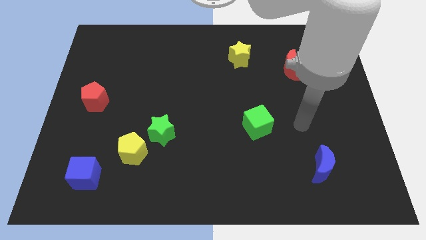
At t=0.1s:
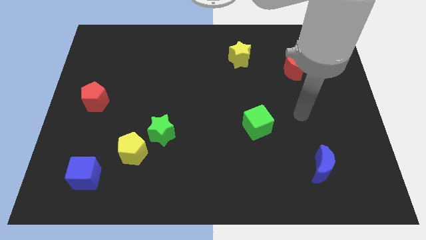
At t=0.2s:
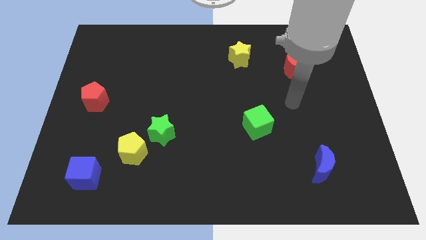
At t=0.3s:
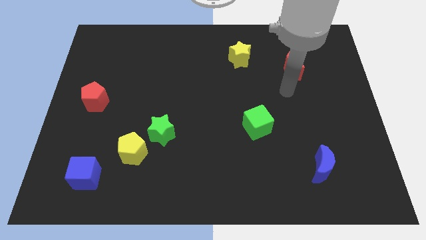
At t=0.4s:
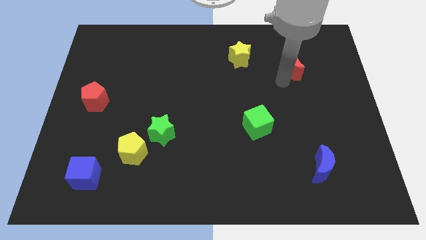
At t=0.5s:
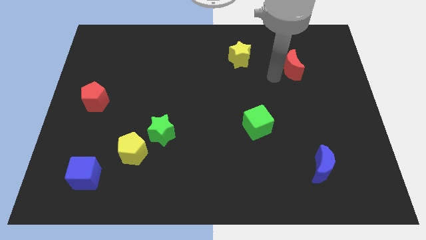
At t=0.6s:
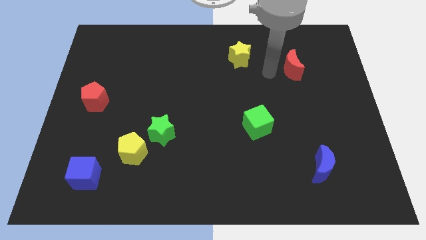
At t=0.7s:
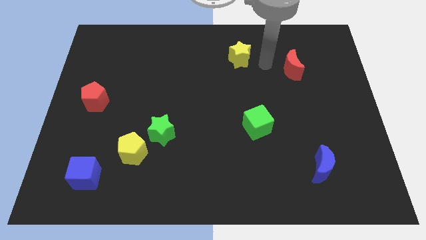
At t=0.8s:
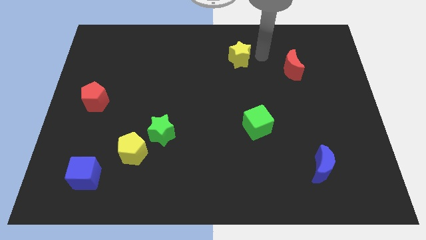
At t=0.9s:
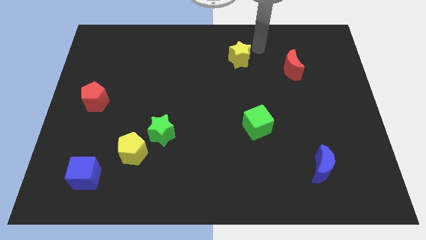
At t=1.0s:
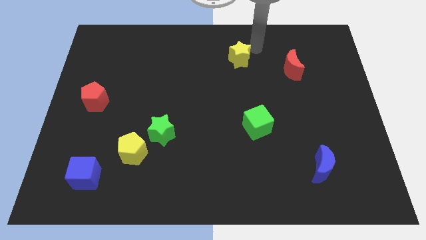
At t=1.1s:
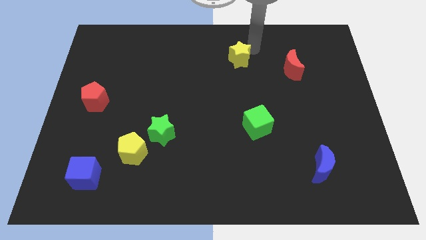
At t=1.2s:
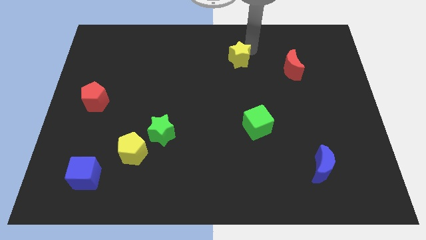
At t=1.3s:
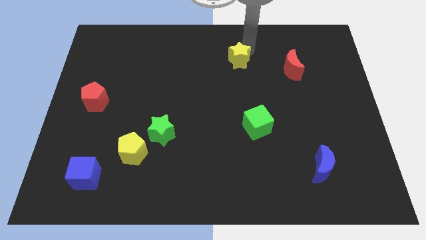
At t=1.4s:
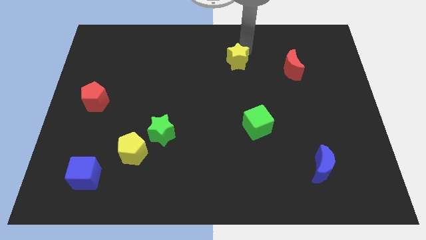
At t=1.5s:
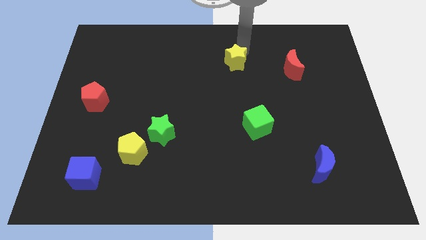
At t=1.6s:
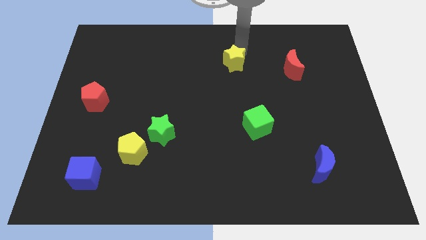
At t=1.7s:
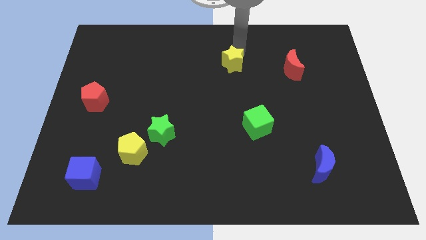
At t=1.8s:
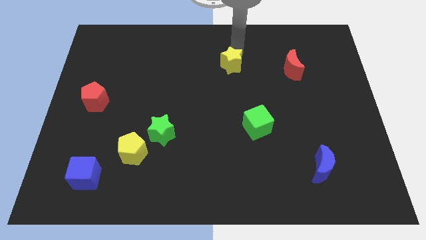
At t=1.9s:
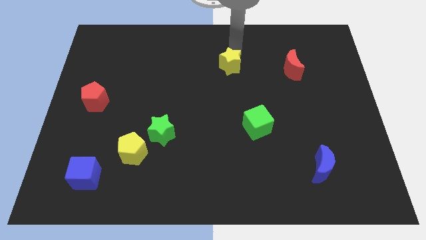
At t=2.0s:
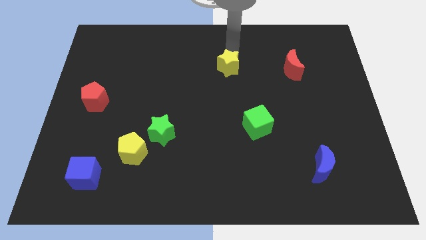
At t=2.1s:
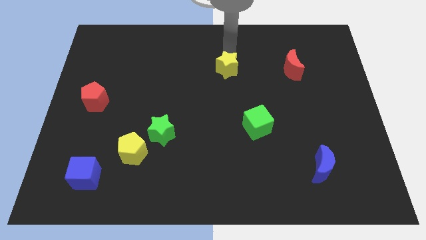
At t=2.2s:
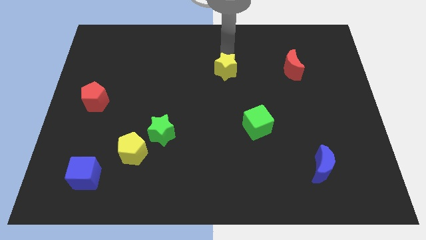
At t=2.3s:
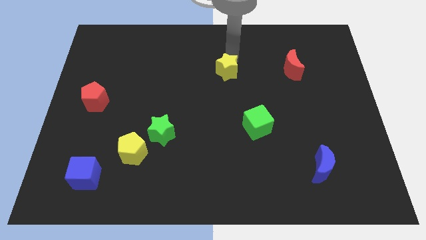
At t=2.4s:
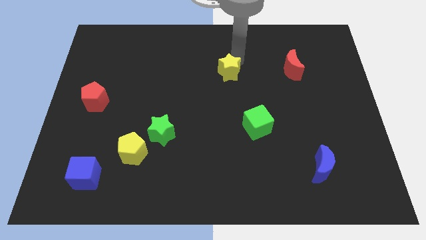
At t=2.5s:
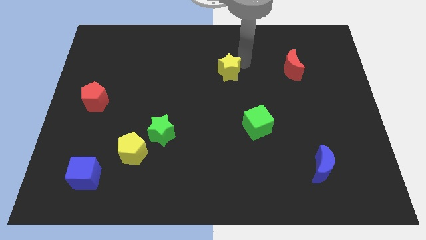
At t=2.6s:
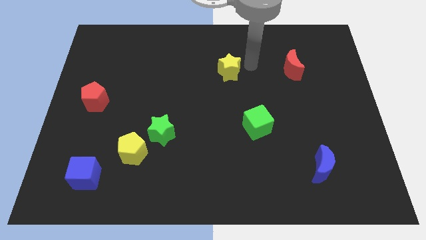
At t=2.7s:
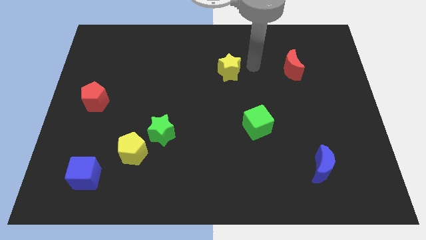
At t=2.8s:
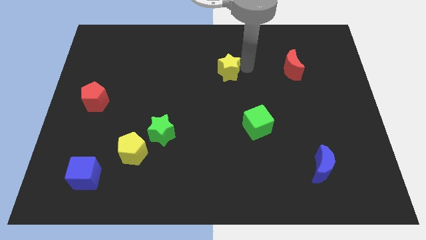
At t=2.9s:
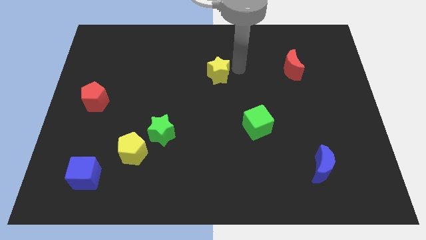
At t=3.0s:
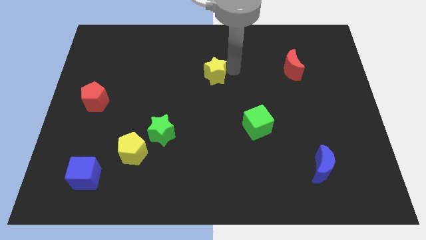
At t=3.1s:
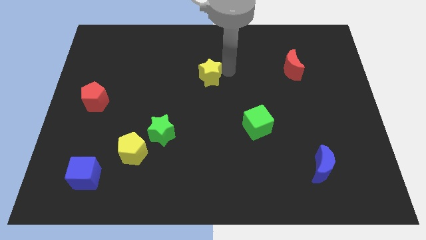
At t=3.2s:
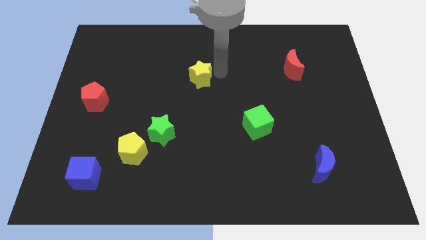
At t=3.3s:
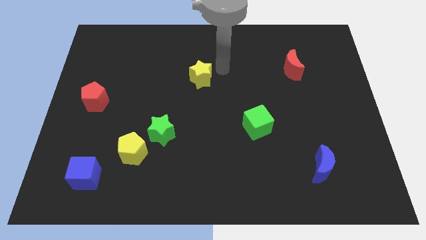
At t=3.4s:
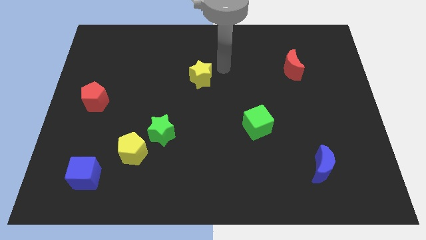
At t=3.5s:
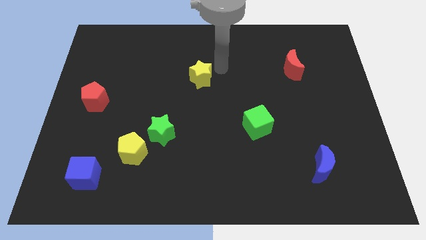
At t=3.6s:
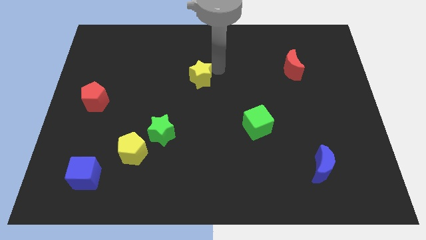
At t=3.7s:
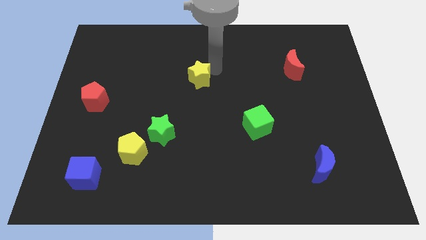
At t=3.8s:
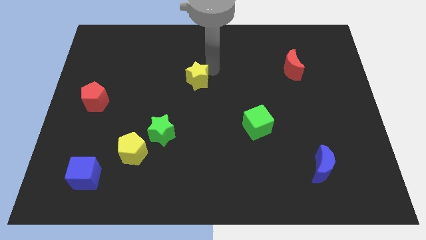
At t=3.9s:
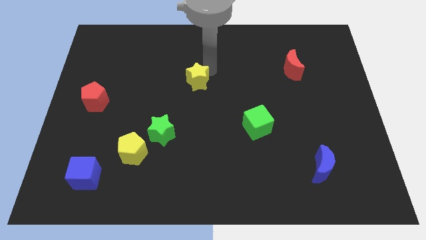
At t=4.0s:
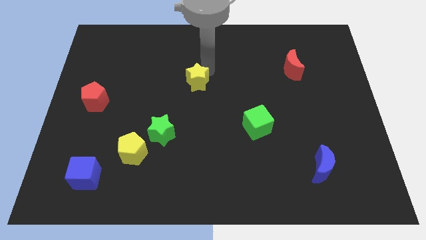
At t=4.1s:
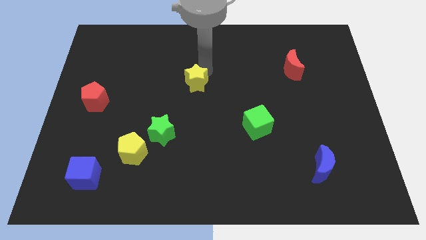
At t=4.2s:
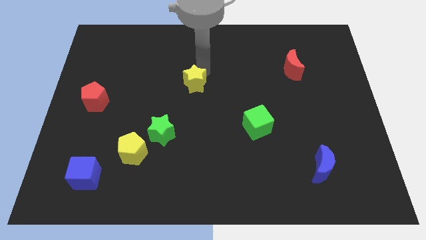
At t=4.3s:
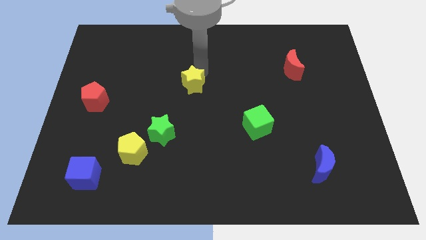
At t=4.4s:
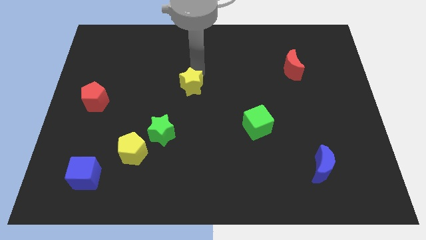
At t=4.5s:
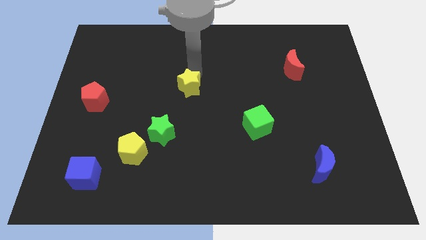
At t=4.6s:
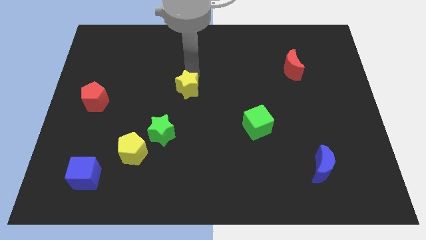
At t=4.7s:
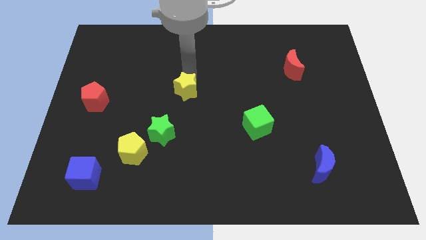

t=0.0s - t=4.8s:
put the yellow star above the green star

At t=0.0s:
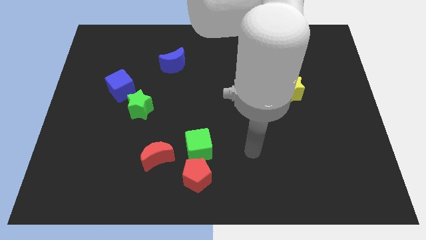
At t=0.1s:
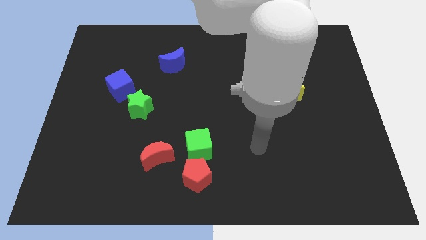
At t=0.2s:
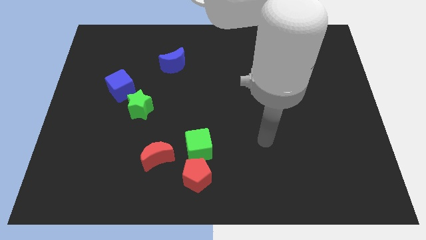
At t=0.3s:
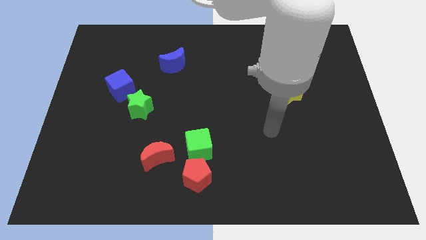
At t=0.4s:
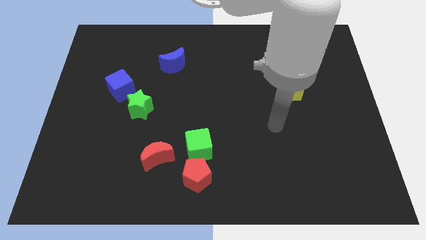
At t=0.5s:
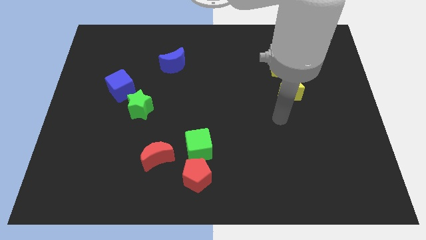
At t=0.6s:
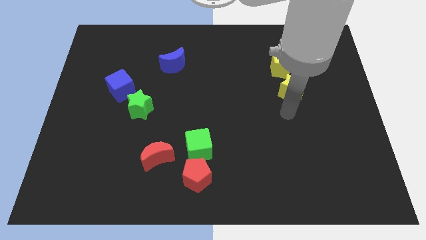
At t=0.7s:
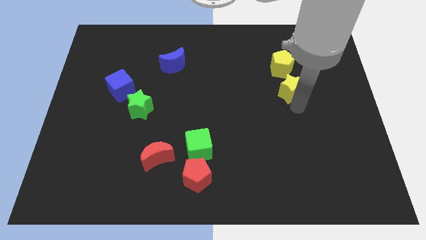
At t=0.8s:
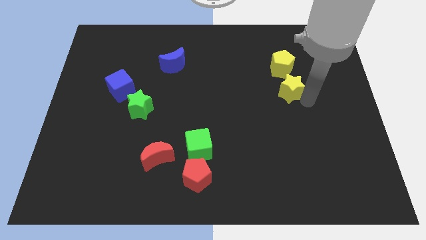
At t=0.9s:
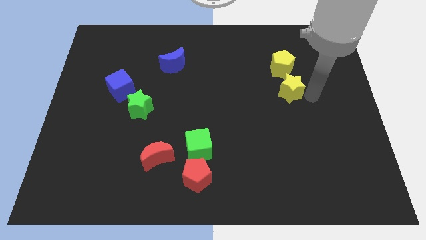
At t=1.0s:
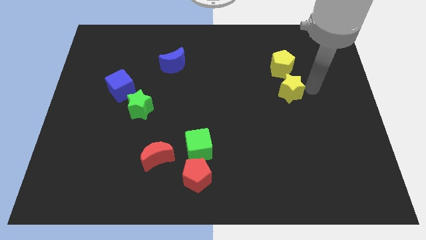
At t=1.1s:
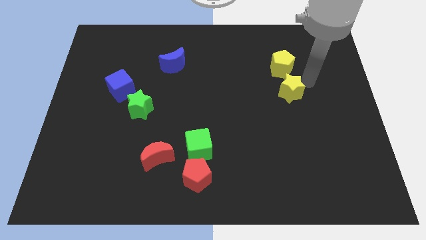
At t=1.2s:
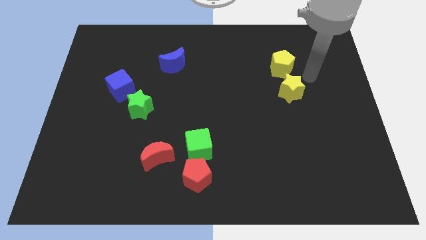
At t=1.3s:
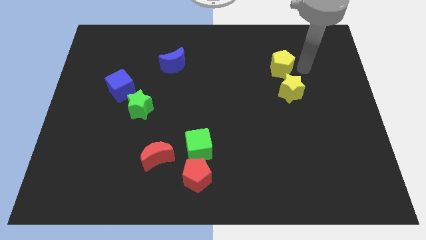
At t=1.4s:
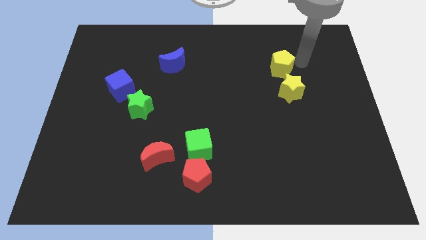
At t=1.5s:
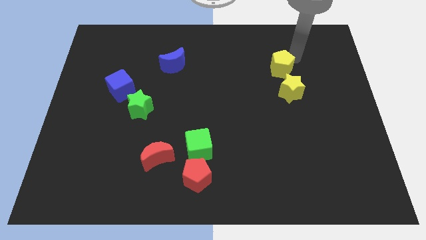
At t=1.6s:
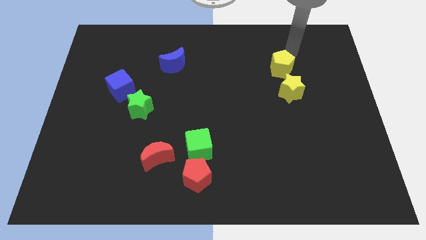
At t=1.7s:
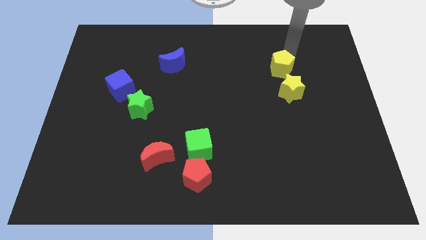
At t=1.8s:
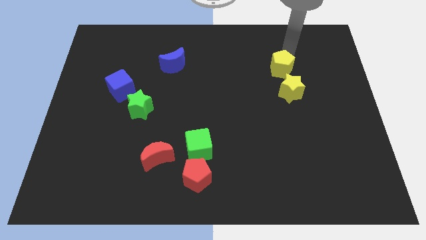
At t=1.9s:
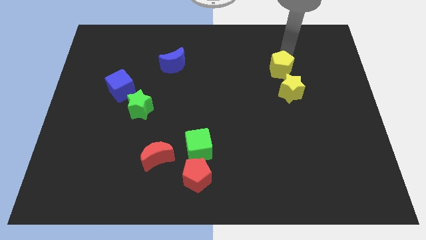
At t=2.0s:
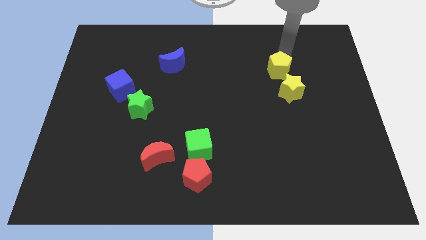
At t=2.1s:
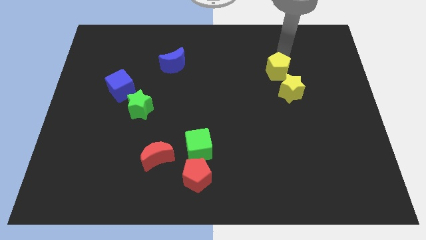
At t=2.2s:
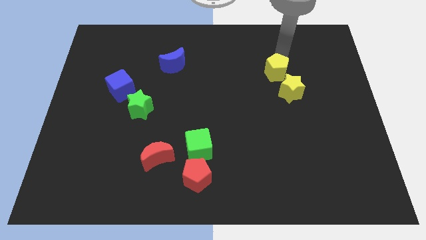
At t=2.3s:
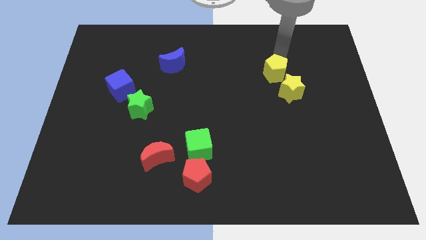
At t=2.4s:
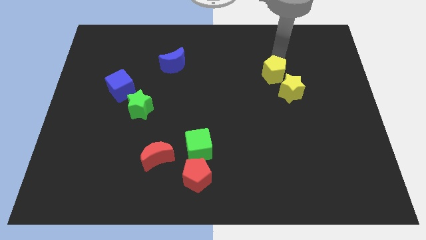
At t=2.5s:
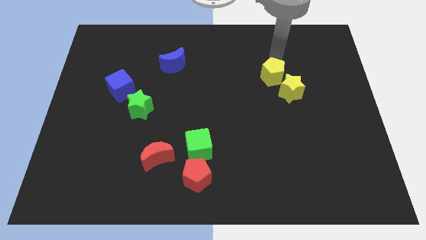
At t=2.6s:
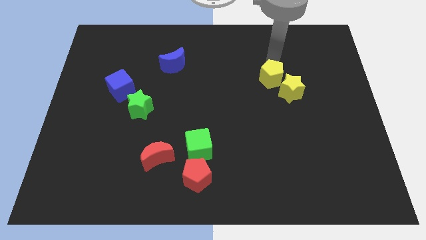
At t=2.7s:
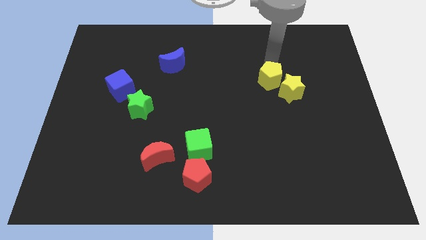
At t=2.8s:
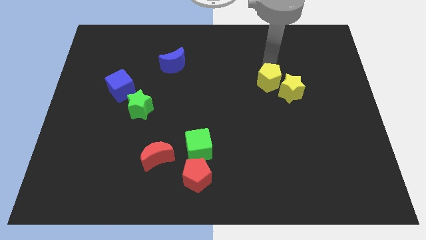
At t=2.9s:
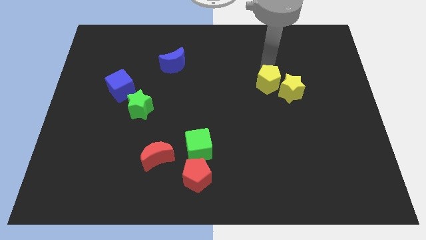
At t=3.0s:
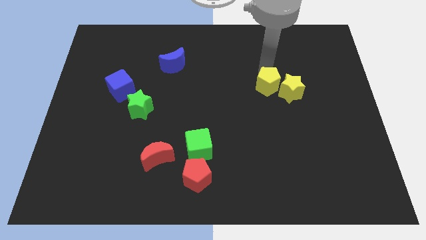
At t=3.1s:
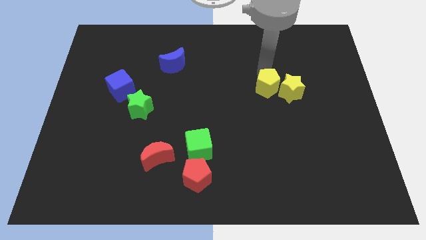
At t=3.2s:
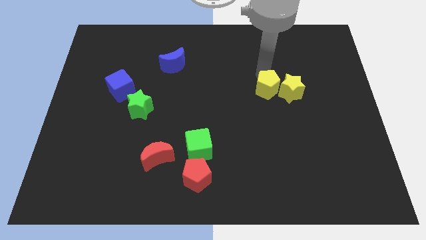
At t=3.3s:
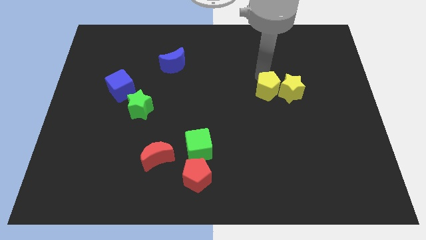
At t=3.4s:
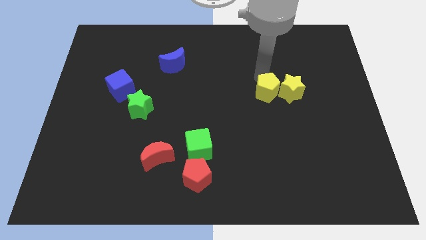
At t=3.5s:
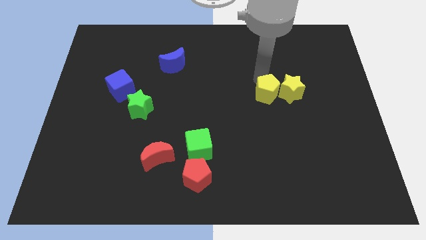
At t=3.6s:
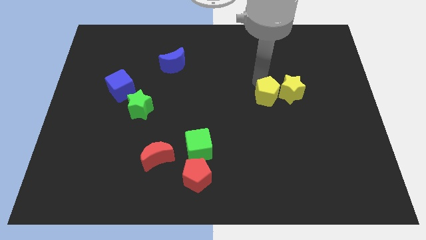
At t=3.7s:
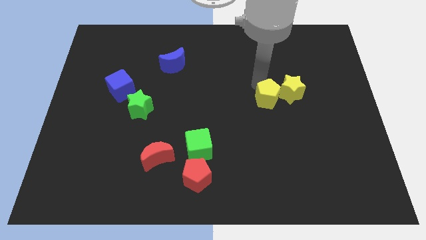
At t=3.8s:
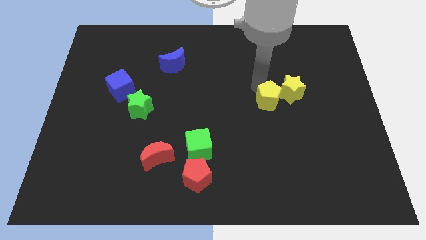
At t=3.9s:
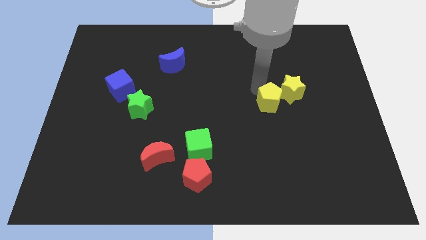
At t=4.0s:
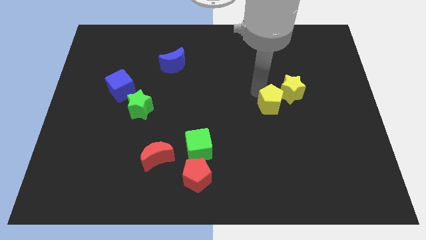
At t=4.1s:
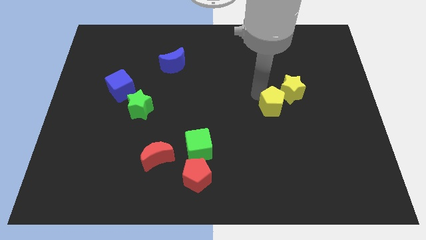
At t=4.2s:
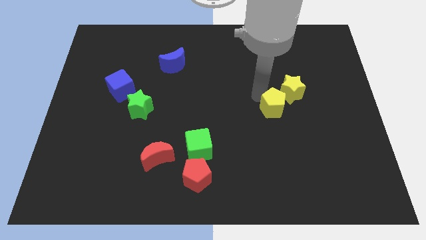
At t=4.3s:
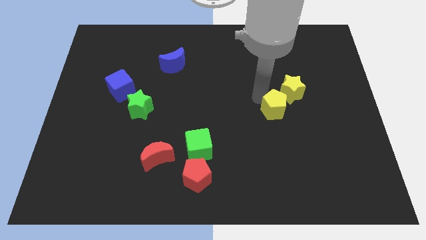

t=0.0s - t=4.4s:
slide the yellow pentagon below the yellow star
